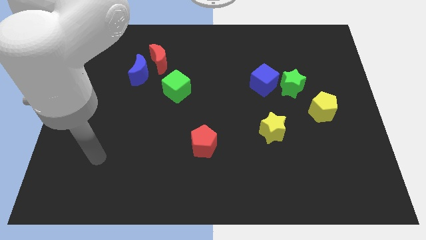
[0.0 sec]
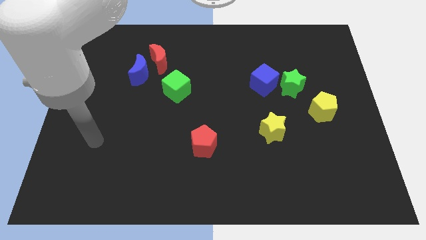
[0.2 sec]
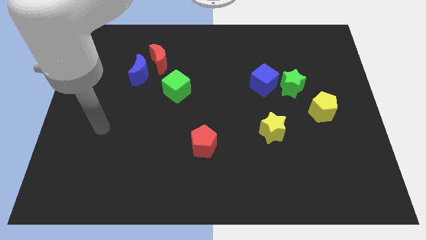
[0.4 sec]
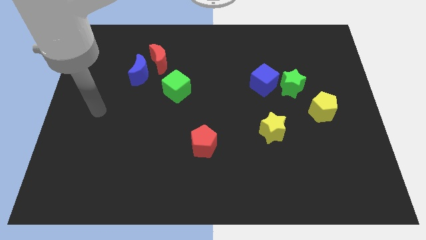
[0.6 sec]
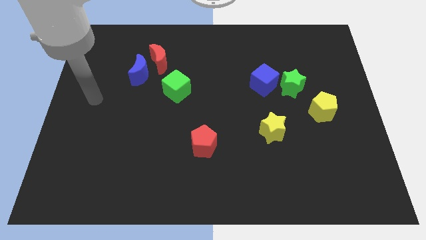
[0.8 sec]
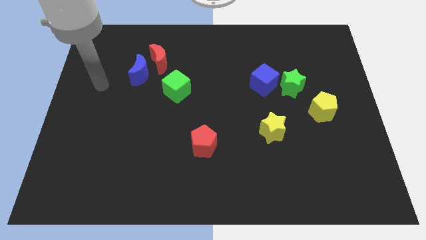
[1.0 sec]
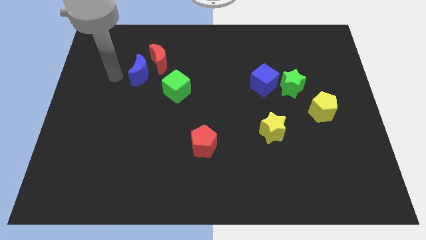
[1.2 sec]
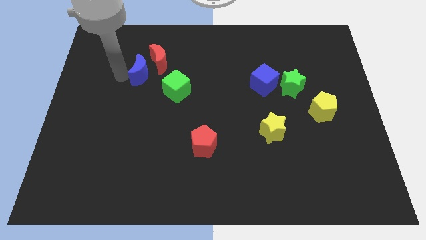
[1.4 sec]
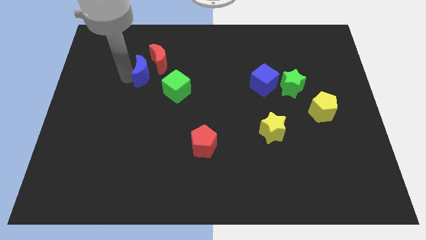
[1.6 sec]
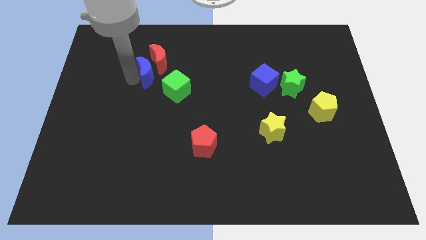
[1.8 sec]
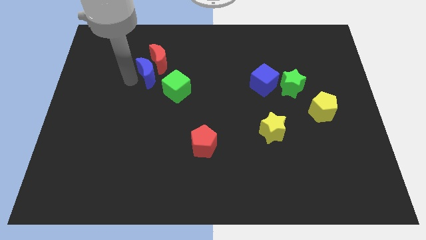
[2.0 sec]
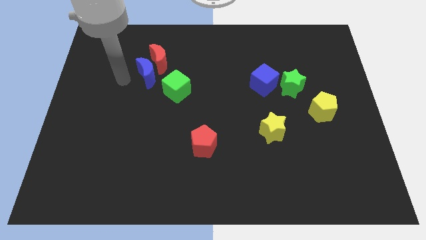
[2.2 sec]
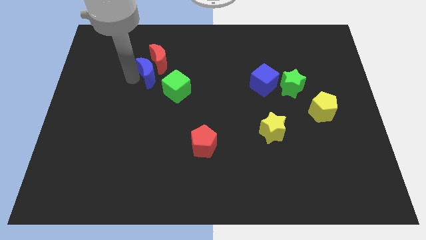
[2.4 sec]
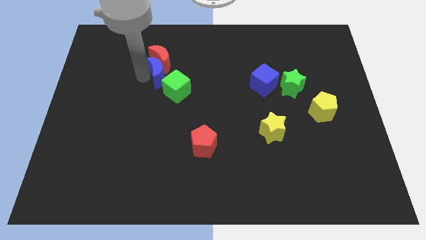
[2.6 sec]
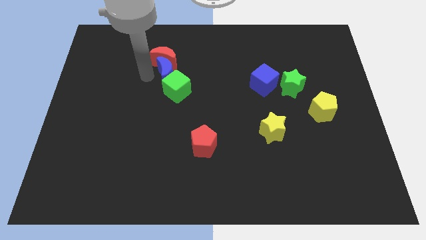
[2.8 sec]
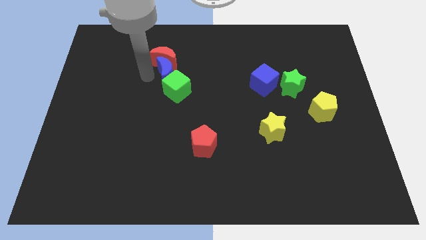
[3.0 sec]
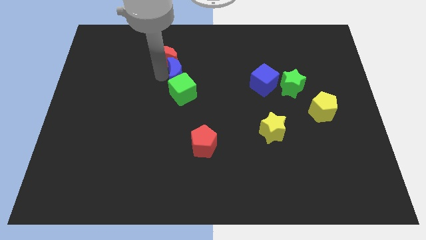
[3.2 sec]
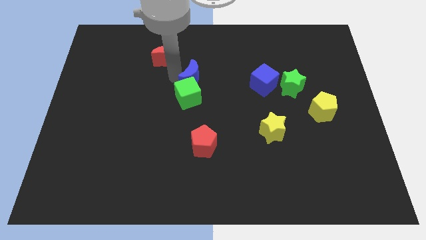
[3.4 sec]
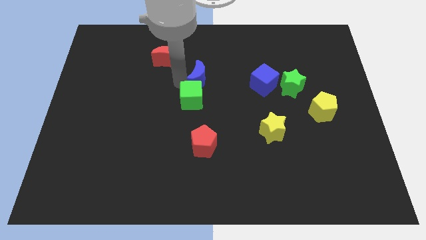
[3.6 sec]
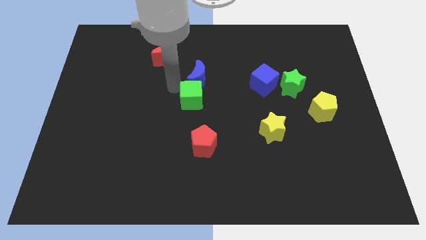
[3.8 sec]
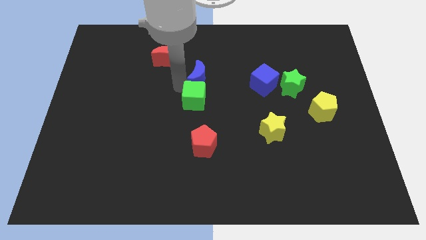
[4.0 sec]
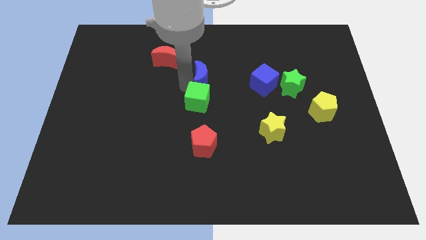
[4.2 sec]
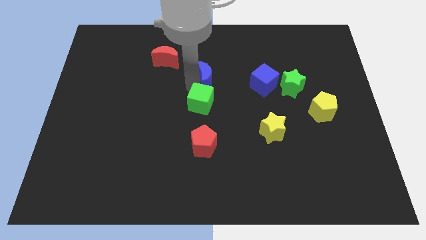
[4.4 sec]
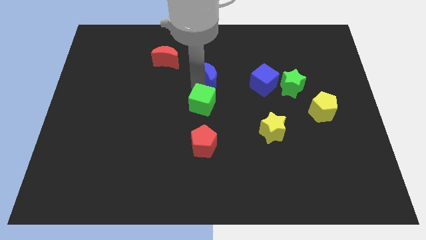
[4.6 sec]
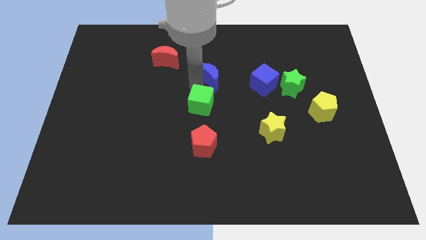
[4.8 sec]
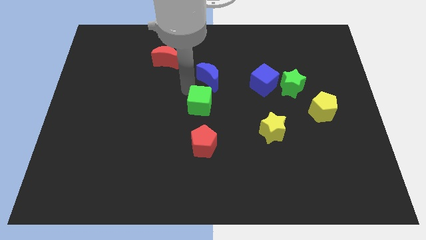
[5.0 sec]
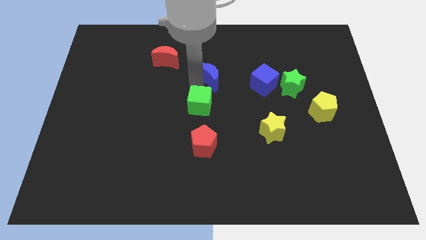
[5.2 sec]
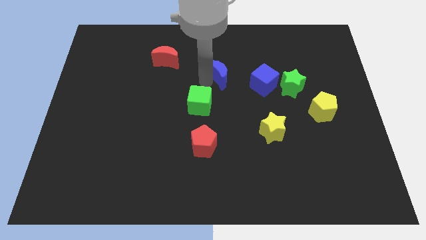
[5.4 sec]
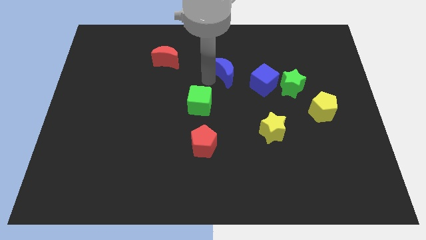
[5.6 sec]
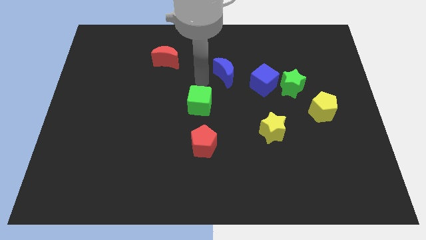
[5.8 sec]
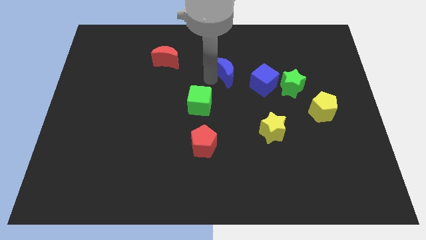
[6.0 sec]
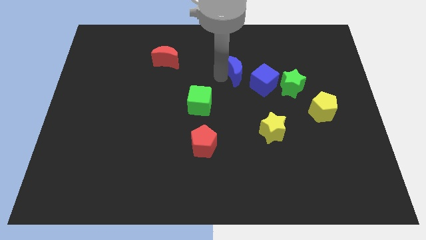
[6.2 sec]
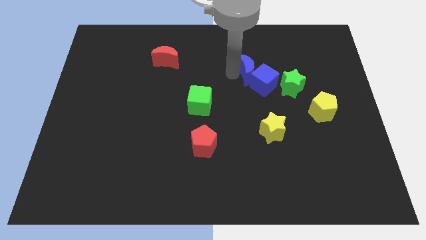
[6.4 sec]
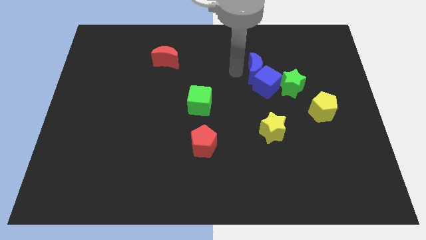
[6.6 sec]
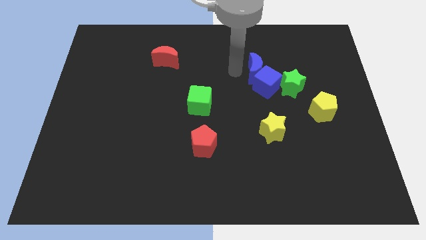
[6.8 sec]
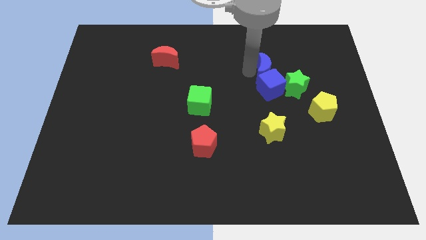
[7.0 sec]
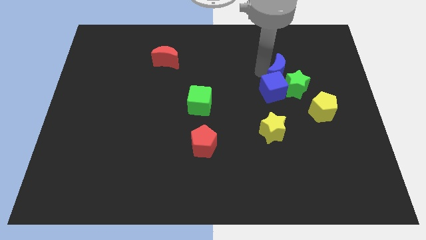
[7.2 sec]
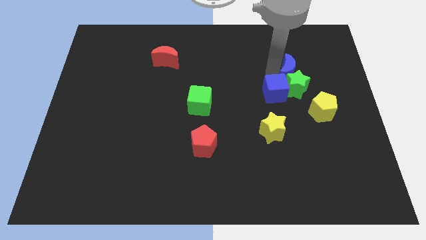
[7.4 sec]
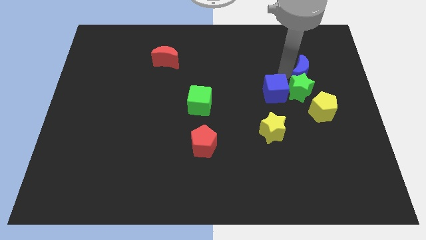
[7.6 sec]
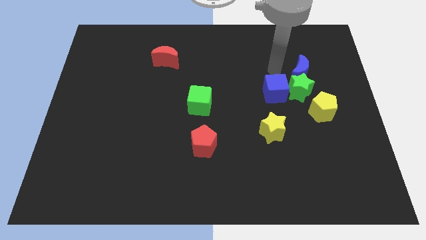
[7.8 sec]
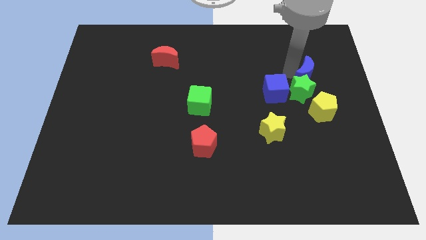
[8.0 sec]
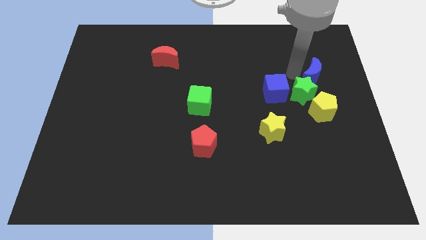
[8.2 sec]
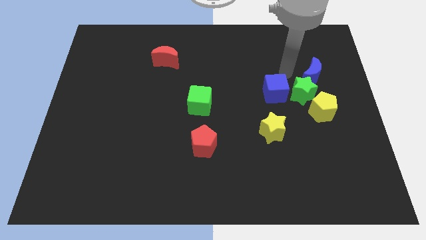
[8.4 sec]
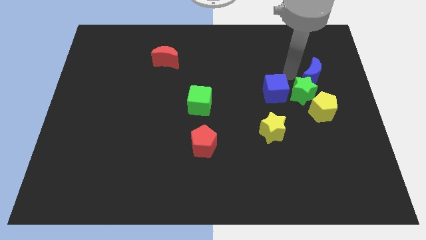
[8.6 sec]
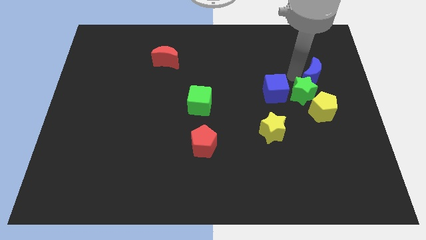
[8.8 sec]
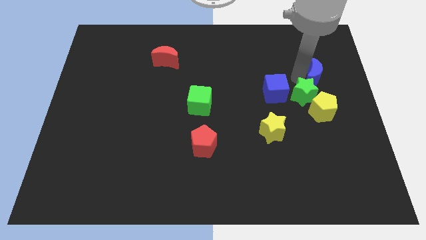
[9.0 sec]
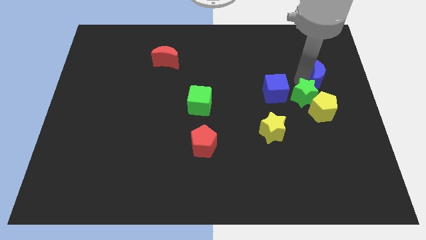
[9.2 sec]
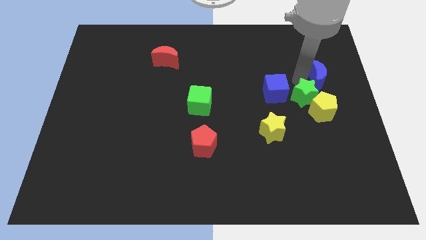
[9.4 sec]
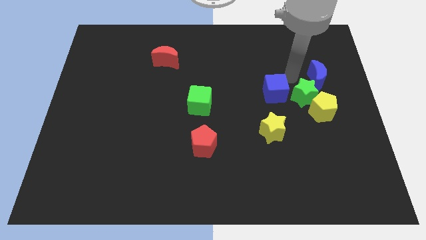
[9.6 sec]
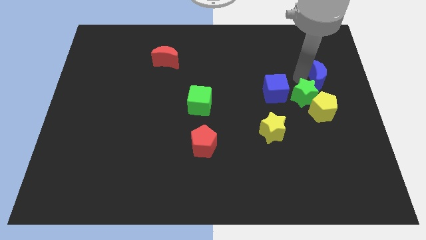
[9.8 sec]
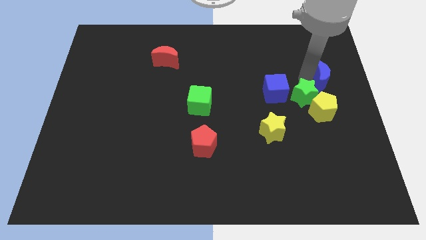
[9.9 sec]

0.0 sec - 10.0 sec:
move the blue moon to the center right
